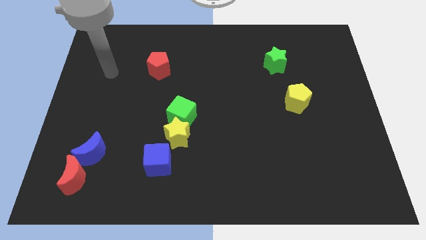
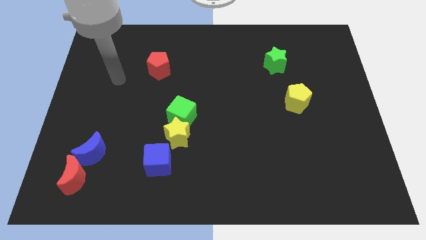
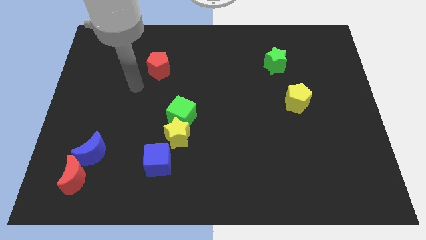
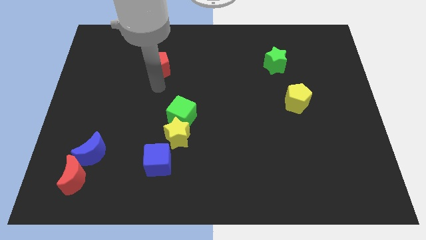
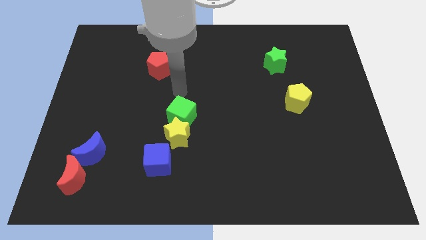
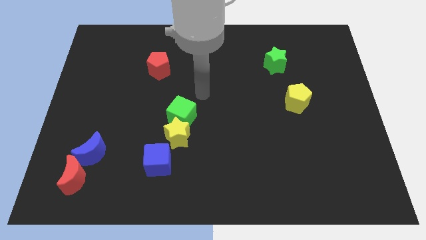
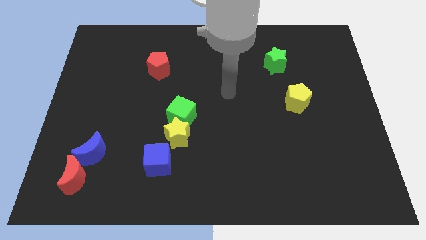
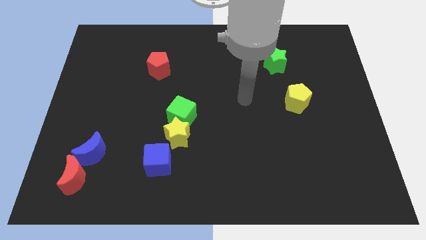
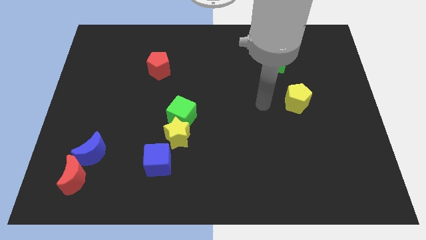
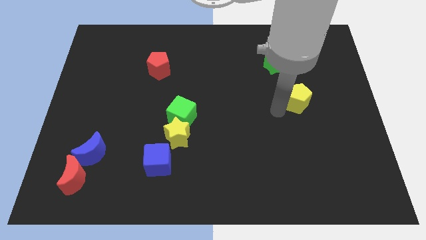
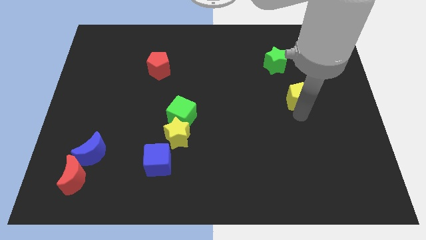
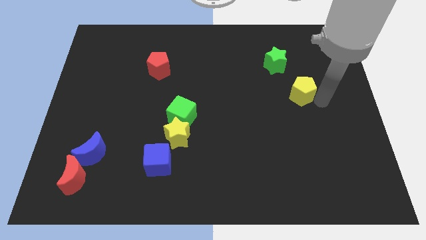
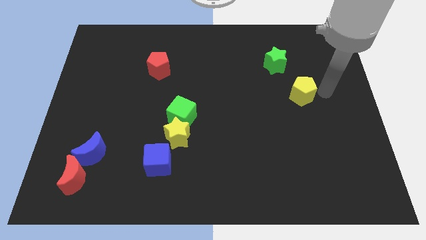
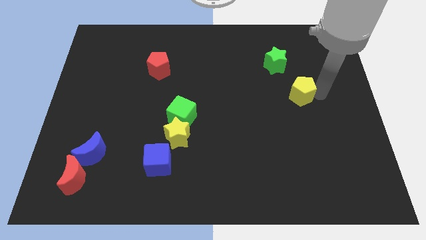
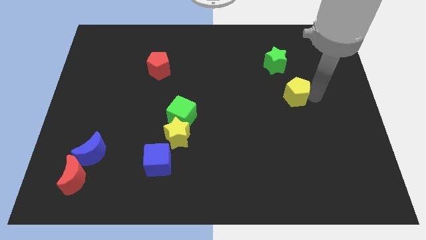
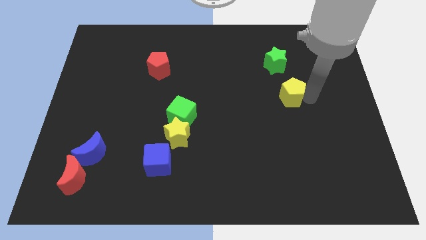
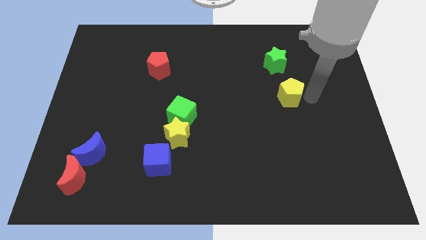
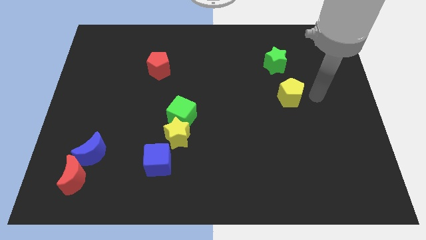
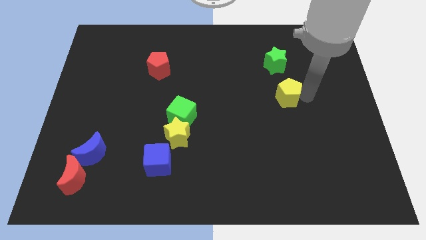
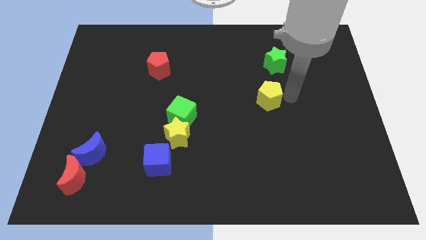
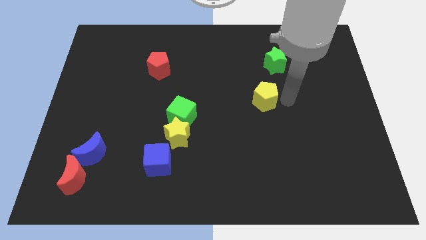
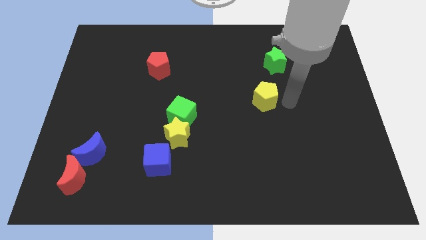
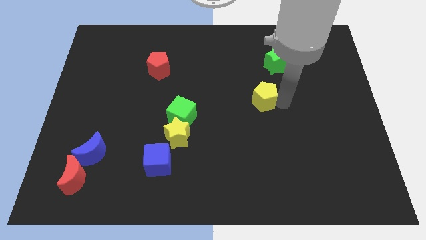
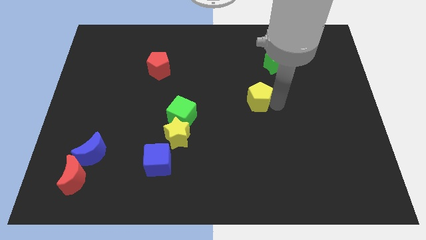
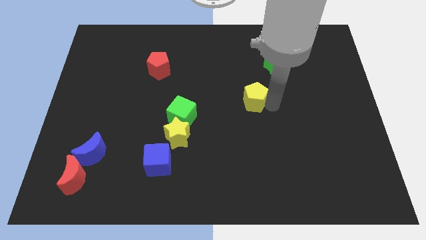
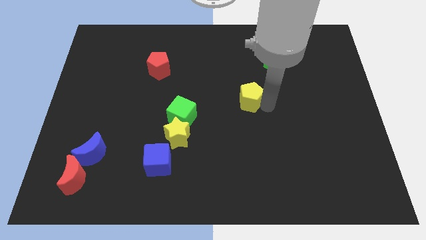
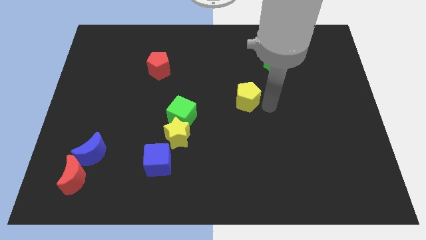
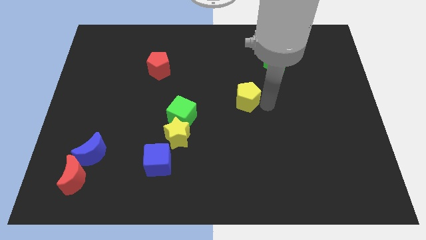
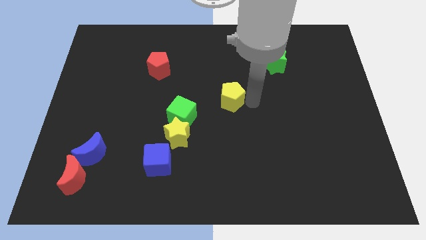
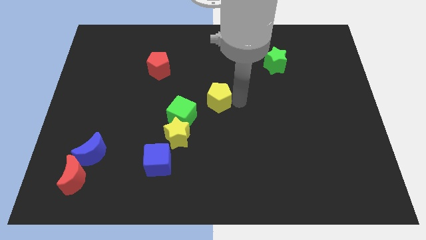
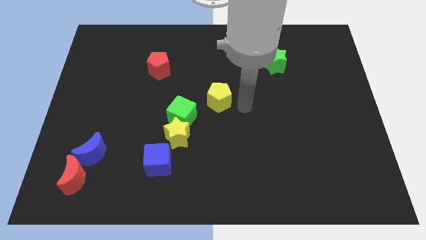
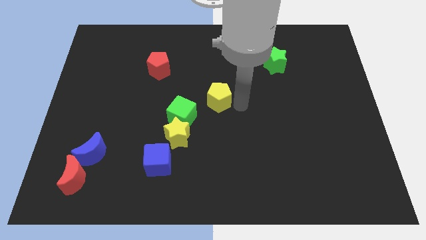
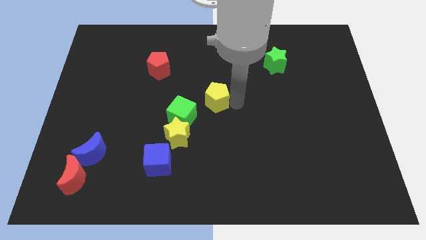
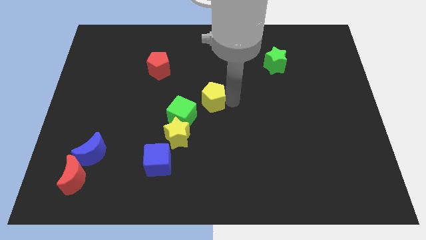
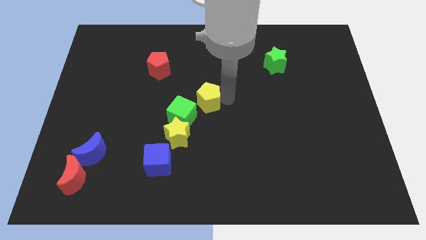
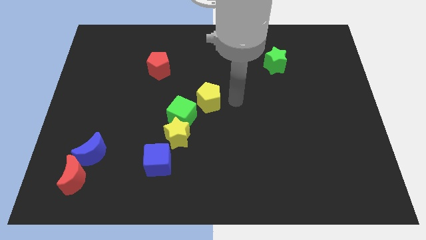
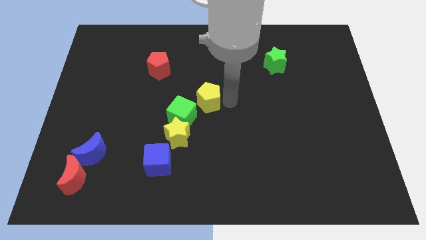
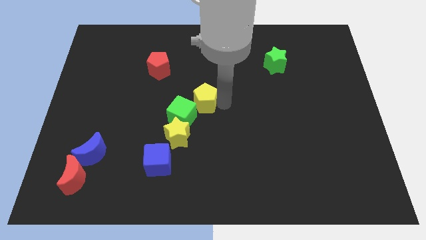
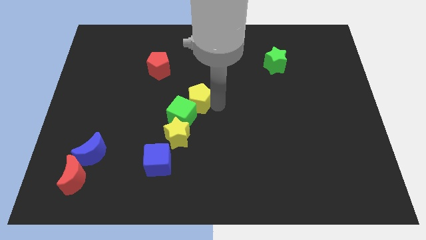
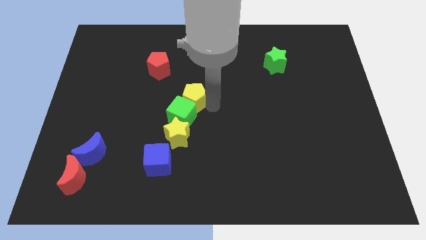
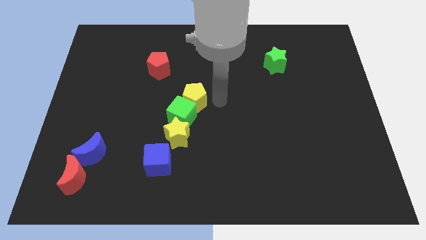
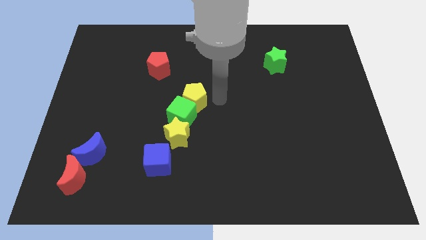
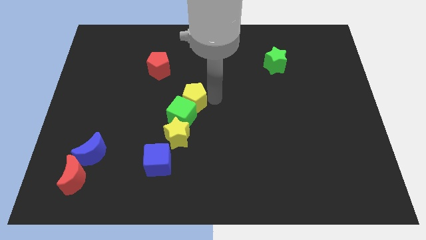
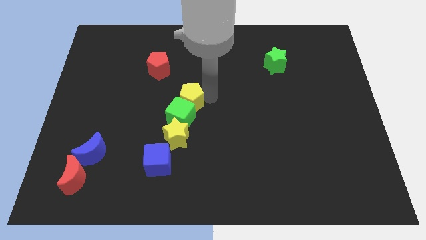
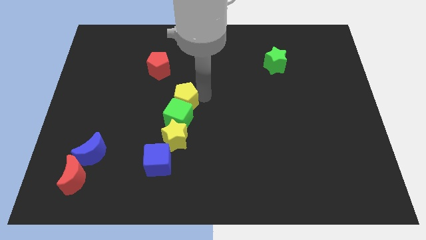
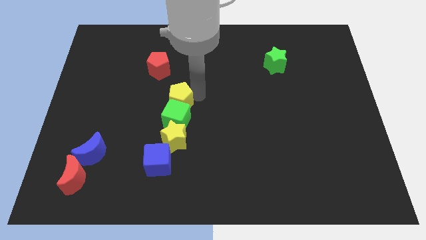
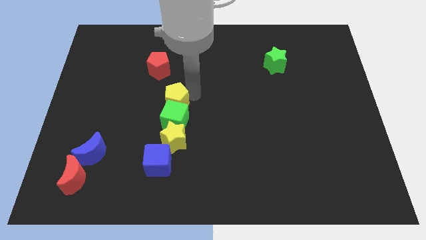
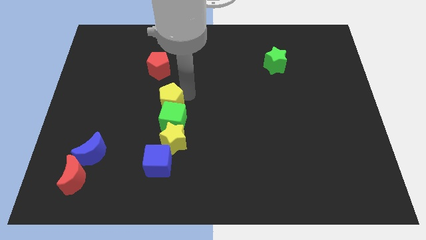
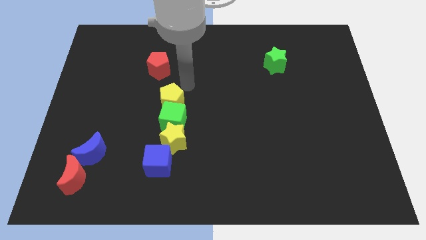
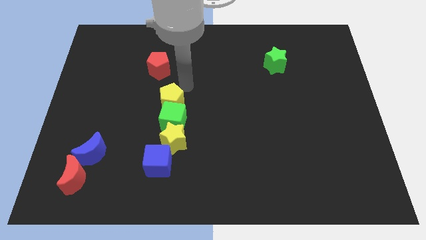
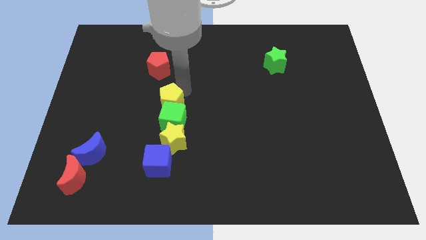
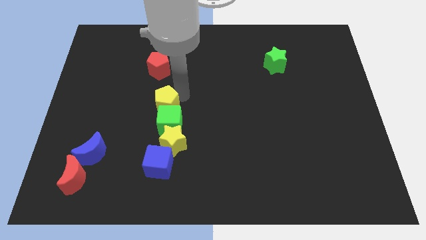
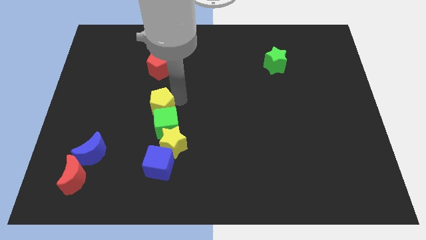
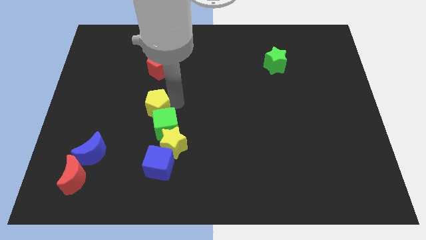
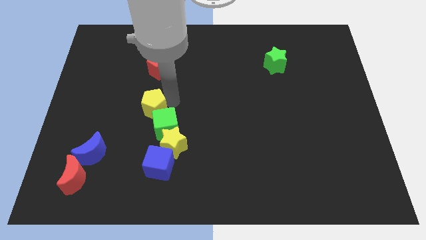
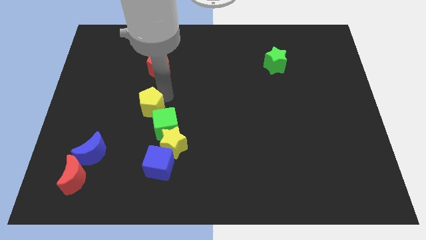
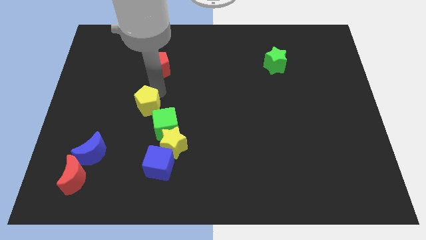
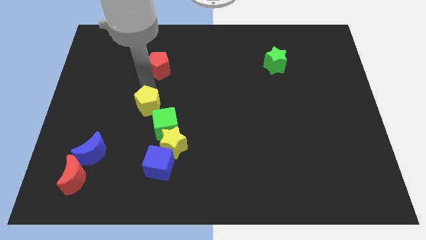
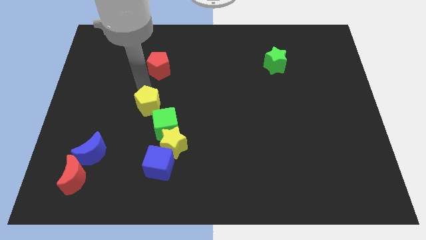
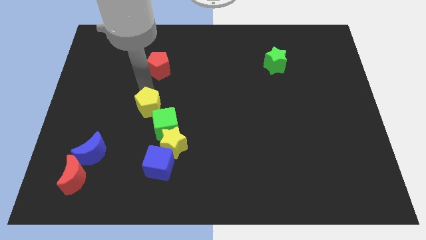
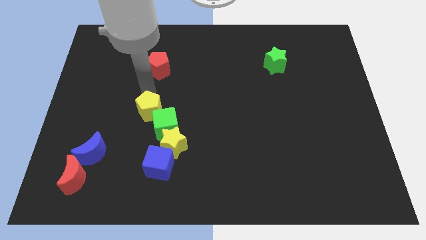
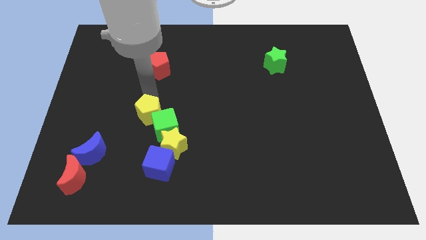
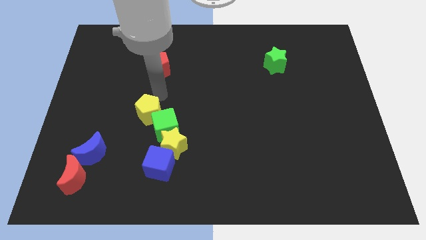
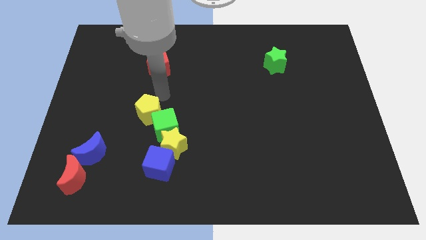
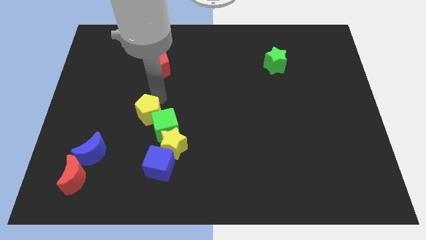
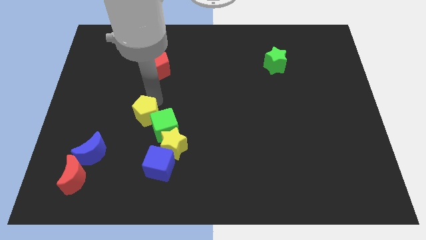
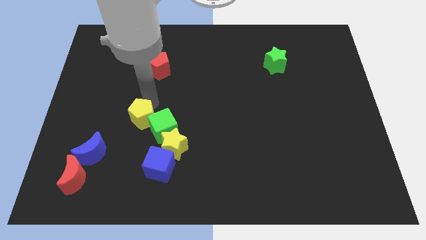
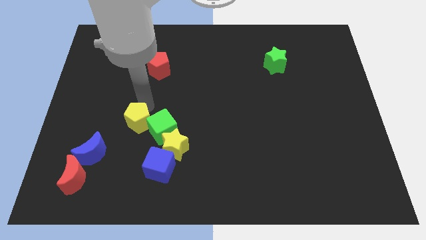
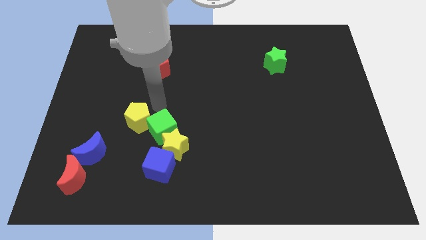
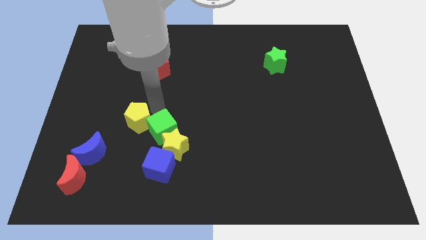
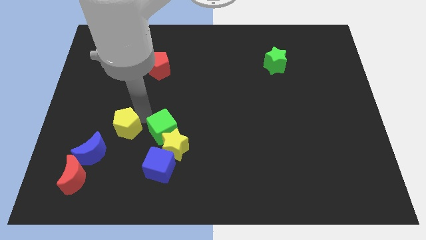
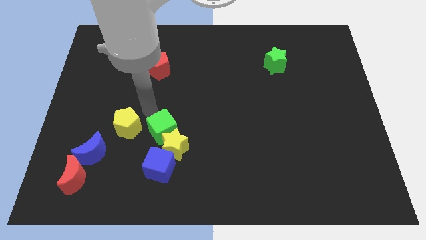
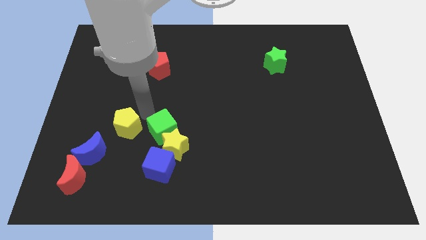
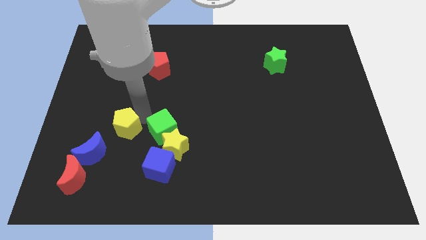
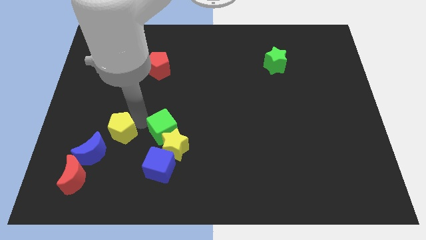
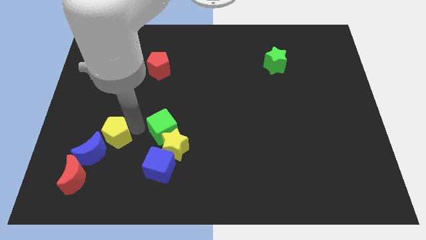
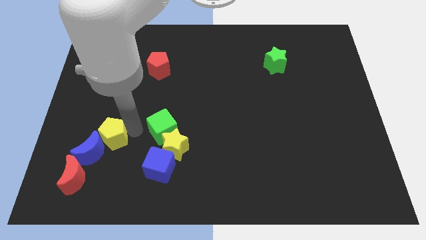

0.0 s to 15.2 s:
move the yellow pentagon to the blue moon
